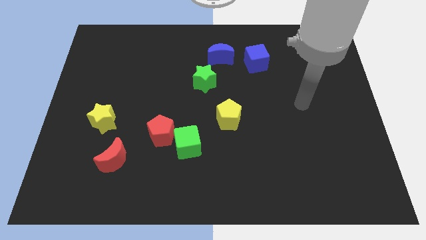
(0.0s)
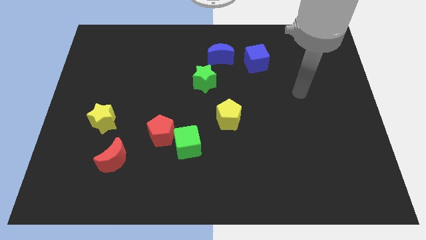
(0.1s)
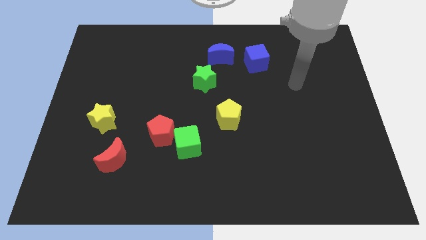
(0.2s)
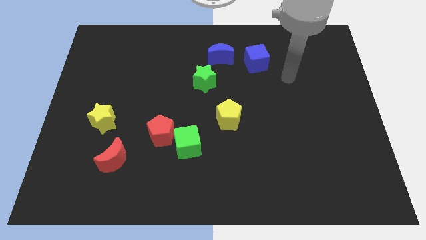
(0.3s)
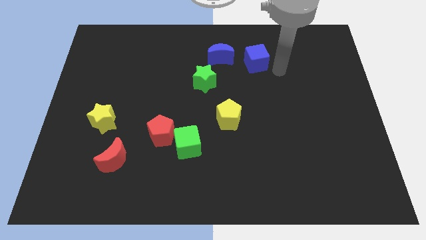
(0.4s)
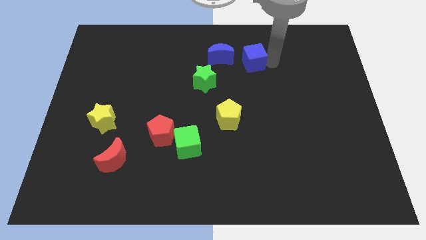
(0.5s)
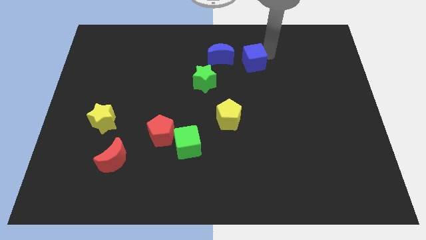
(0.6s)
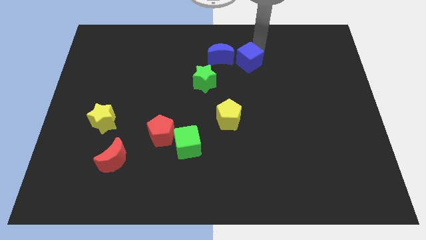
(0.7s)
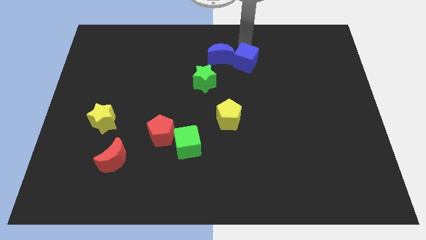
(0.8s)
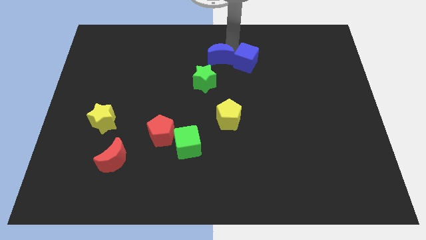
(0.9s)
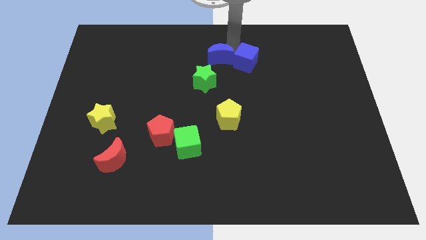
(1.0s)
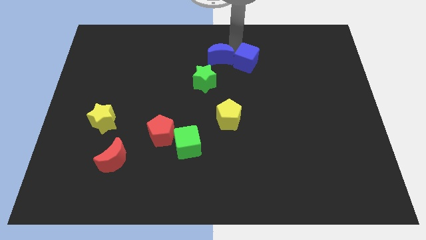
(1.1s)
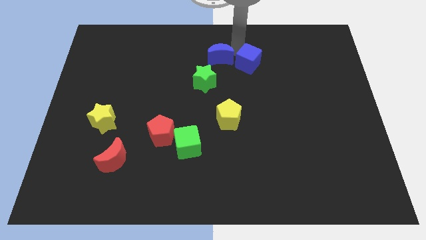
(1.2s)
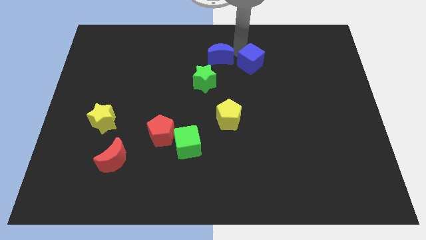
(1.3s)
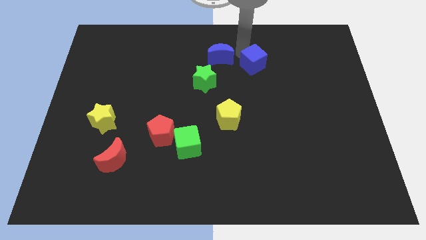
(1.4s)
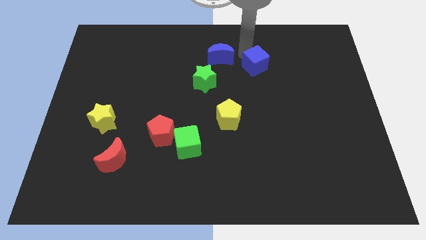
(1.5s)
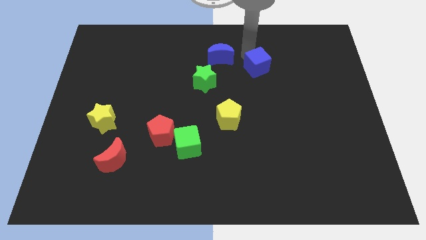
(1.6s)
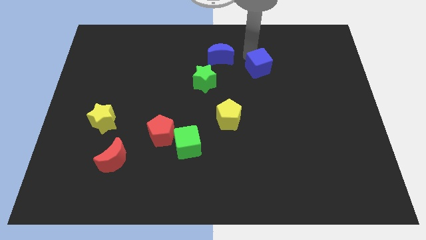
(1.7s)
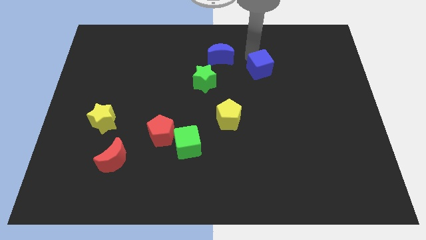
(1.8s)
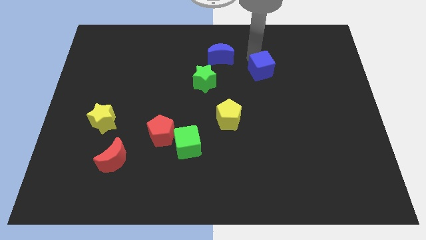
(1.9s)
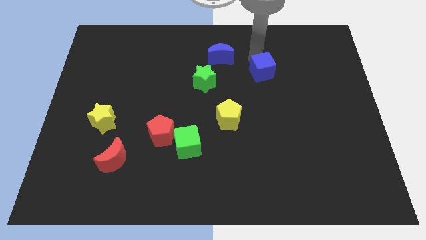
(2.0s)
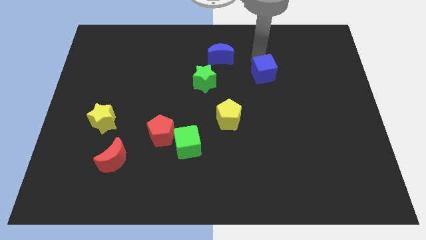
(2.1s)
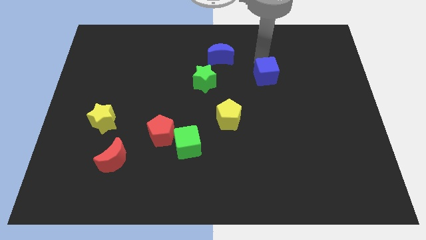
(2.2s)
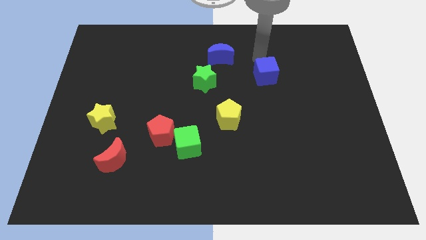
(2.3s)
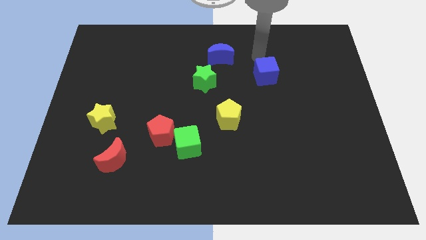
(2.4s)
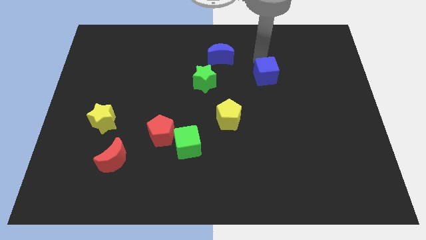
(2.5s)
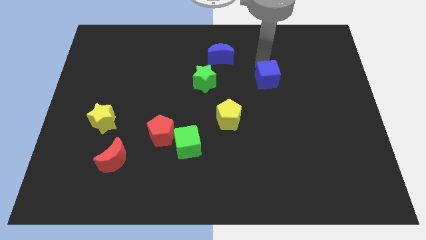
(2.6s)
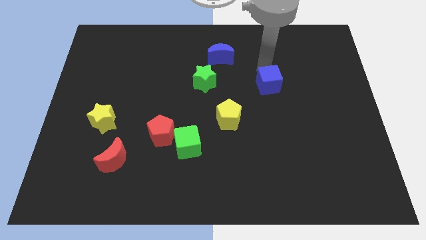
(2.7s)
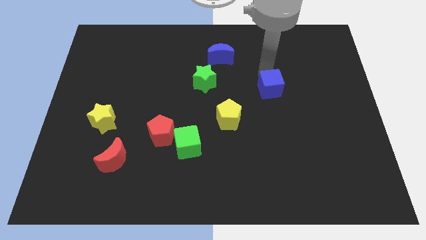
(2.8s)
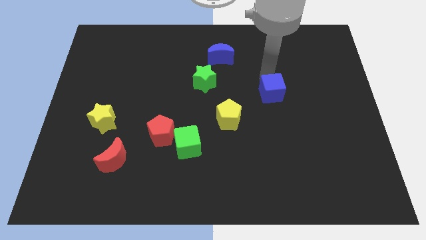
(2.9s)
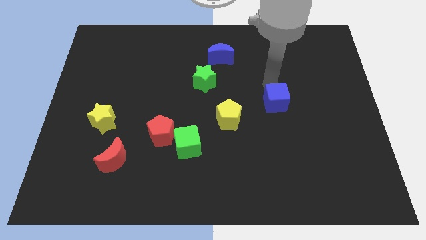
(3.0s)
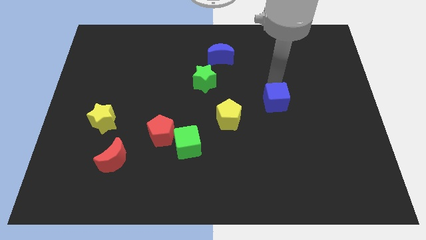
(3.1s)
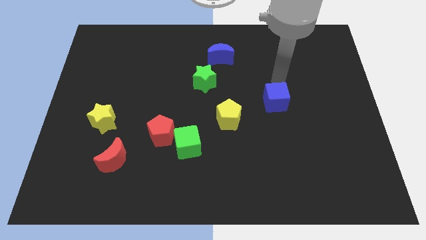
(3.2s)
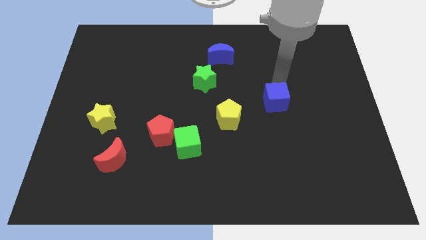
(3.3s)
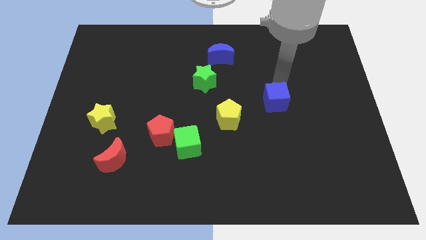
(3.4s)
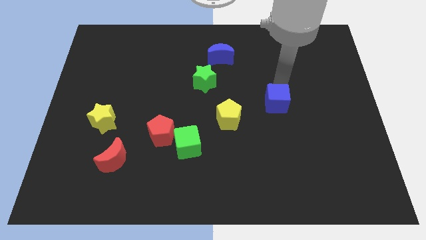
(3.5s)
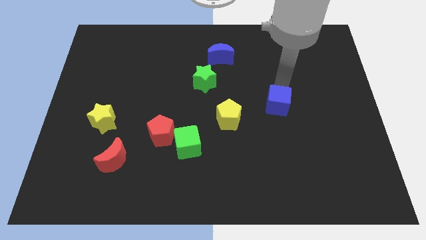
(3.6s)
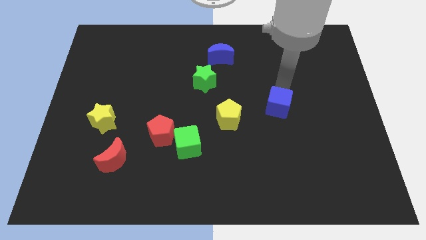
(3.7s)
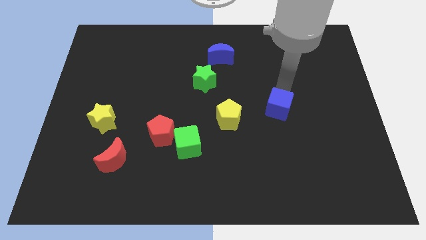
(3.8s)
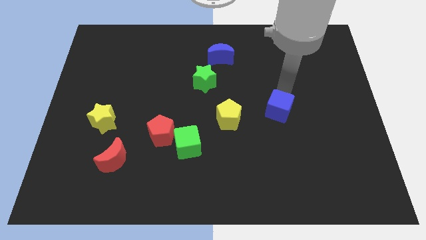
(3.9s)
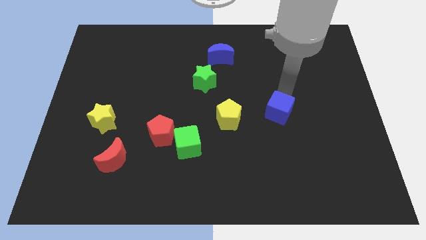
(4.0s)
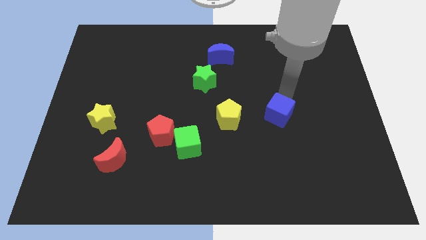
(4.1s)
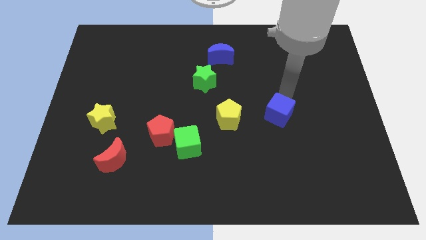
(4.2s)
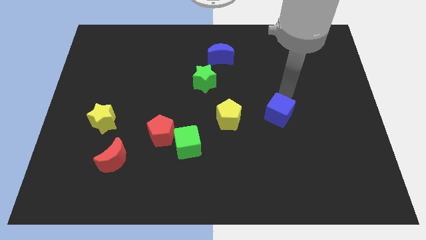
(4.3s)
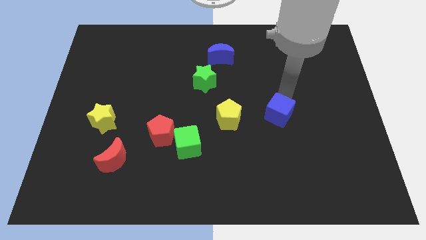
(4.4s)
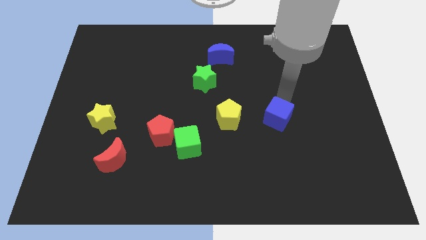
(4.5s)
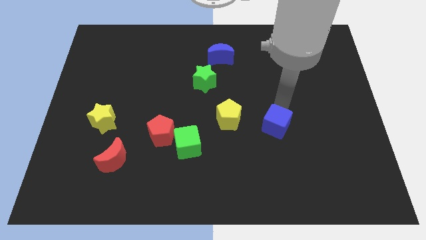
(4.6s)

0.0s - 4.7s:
push the blue cube downwards

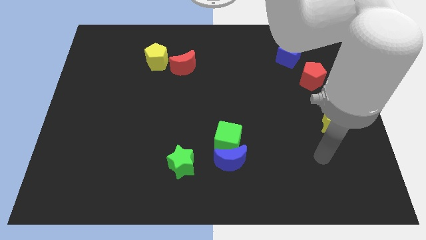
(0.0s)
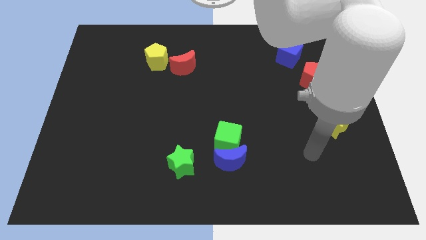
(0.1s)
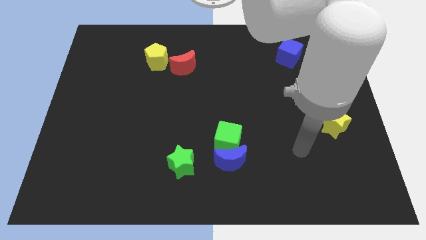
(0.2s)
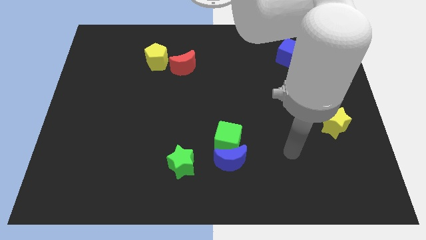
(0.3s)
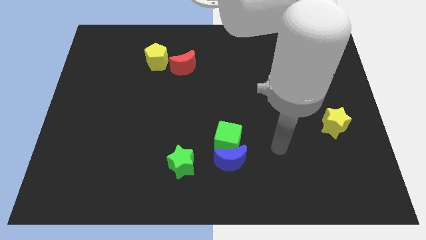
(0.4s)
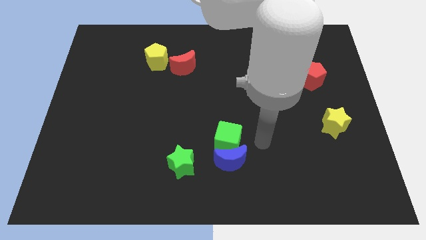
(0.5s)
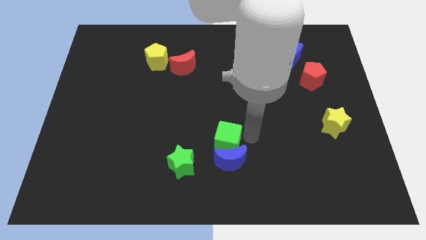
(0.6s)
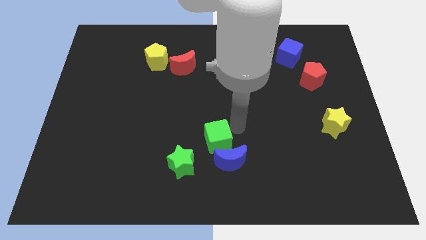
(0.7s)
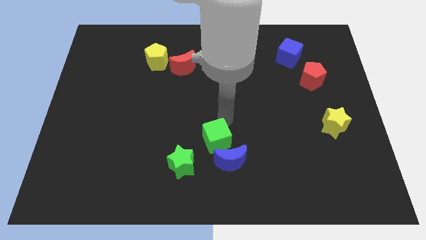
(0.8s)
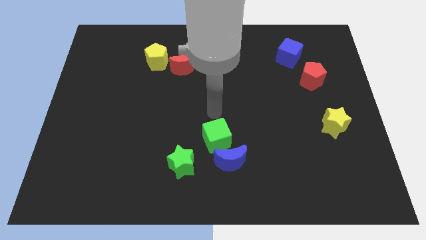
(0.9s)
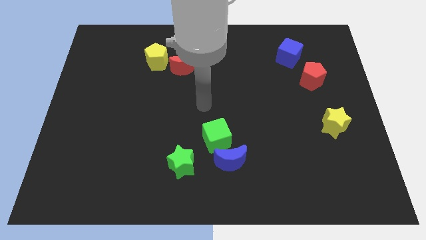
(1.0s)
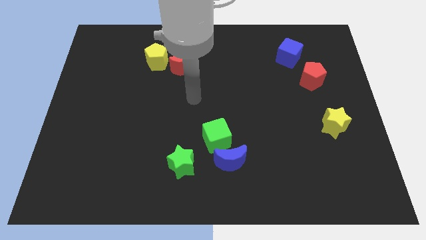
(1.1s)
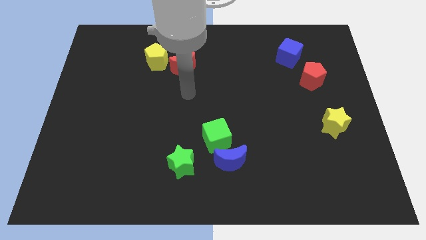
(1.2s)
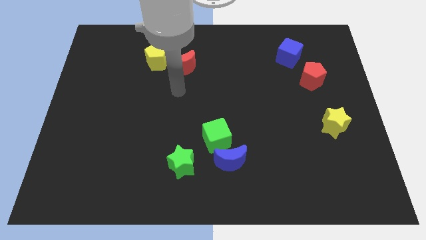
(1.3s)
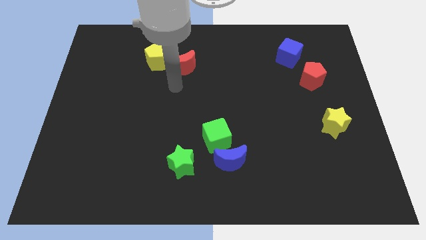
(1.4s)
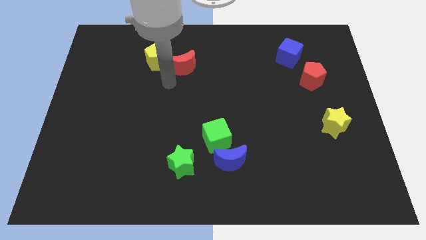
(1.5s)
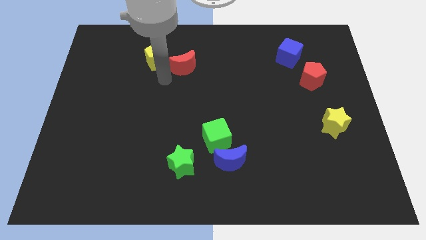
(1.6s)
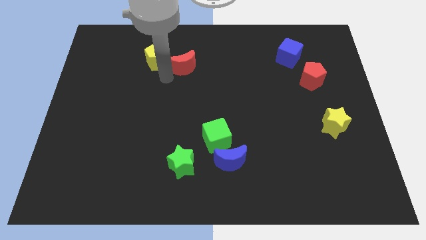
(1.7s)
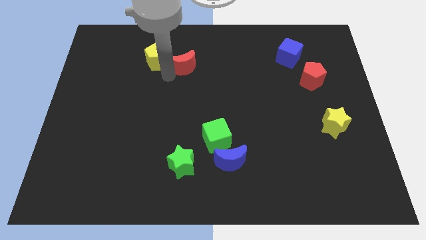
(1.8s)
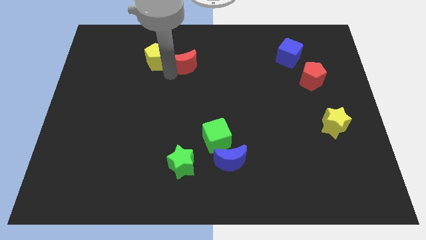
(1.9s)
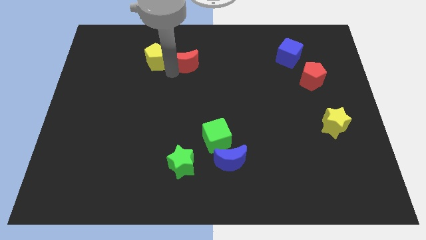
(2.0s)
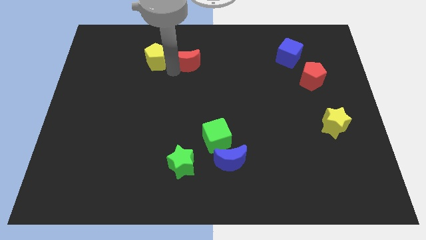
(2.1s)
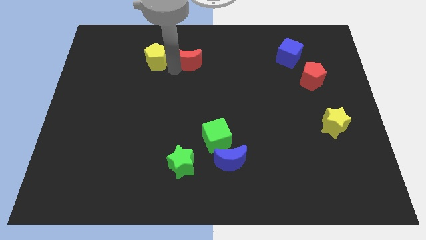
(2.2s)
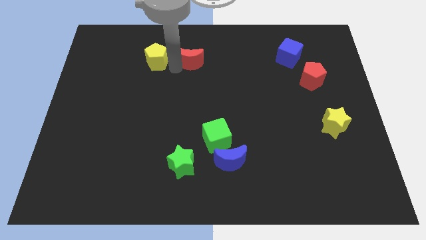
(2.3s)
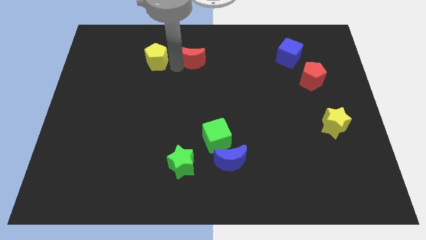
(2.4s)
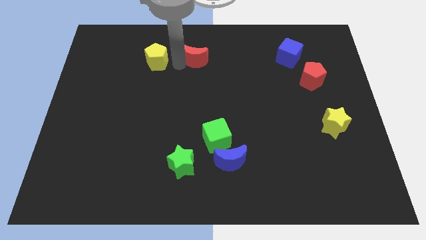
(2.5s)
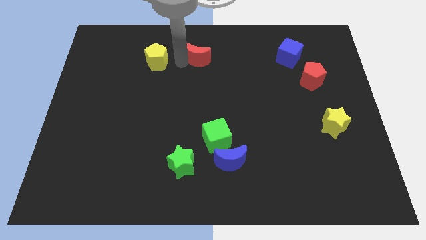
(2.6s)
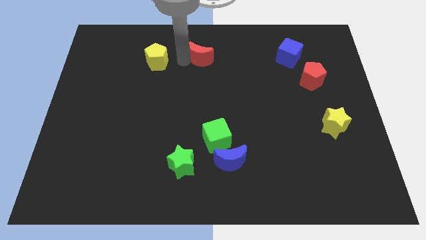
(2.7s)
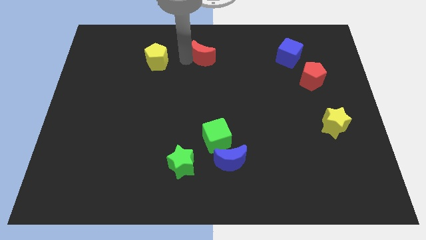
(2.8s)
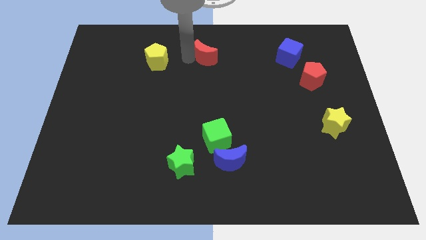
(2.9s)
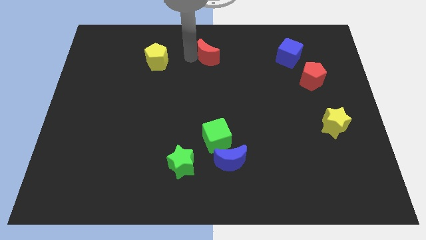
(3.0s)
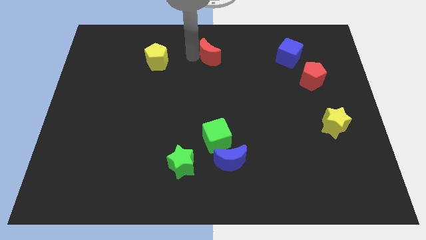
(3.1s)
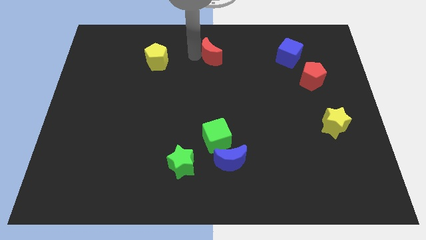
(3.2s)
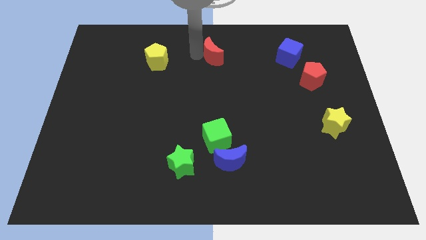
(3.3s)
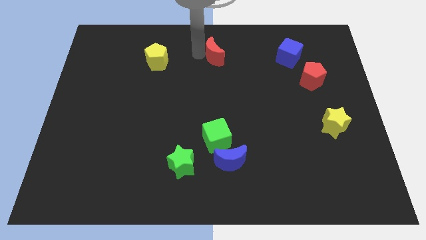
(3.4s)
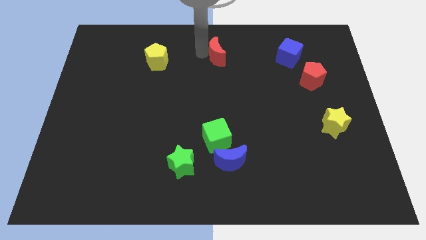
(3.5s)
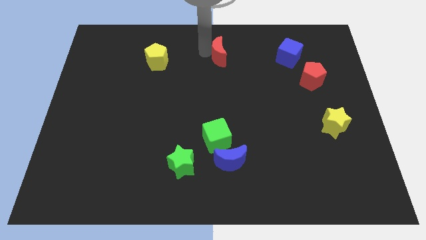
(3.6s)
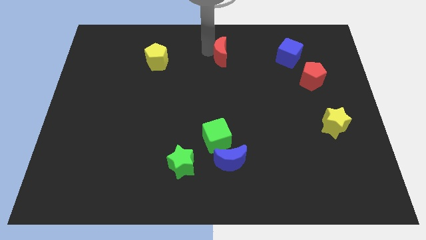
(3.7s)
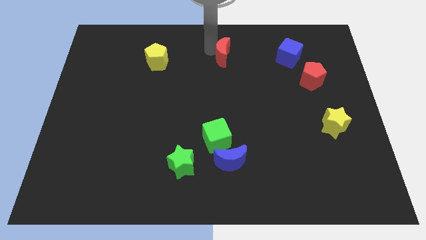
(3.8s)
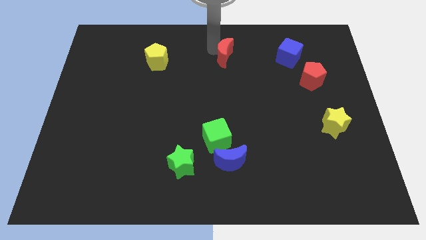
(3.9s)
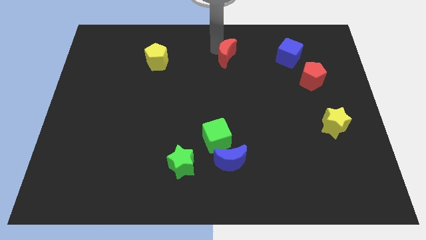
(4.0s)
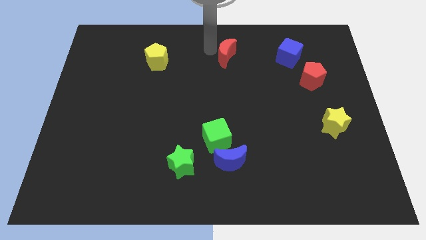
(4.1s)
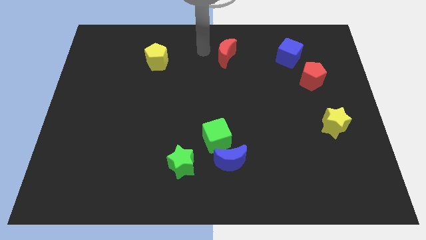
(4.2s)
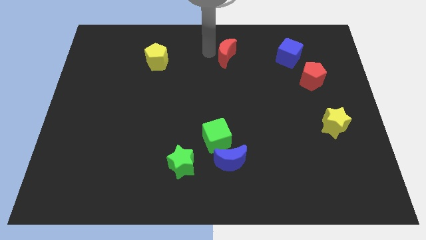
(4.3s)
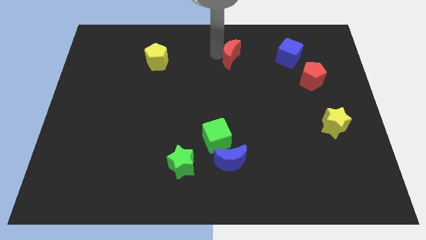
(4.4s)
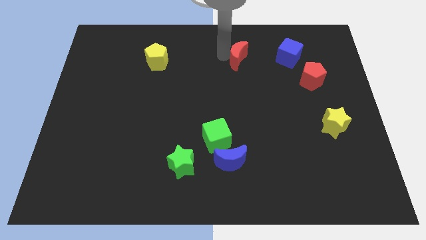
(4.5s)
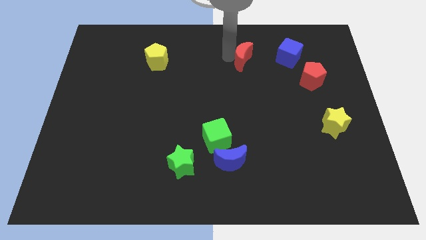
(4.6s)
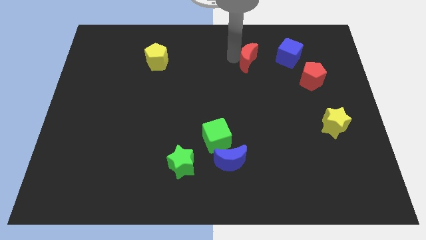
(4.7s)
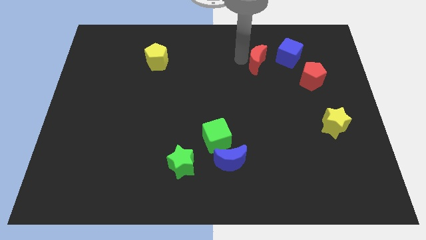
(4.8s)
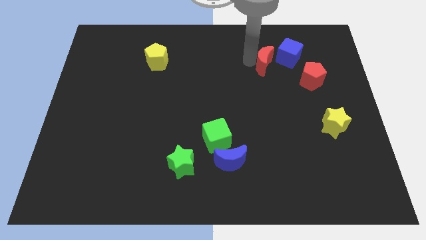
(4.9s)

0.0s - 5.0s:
move the red moon to the right
